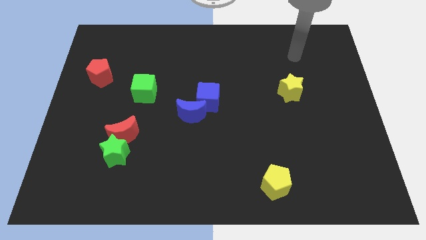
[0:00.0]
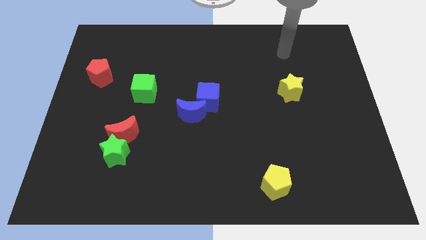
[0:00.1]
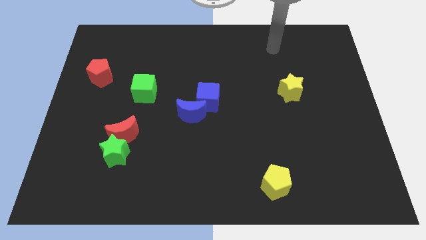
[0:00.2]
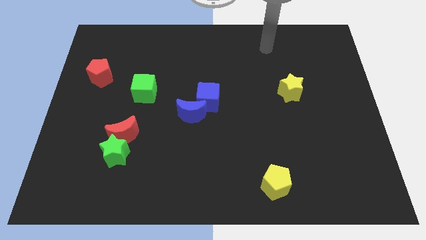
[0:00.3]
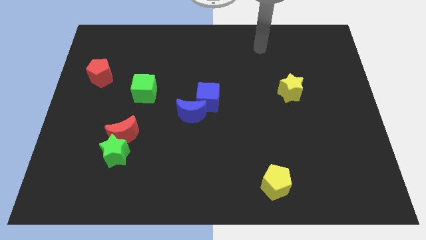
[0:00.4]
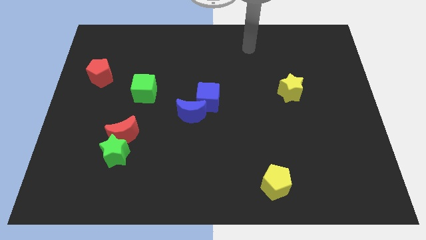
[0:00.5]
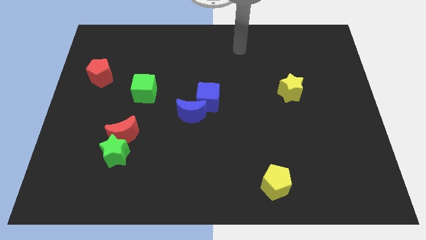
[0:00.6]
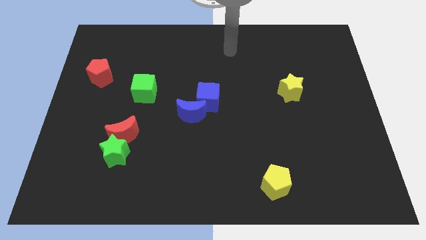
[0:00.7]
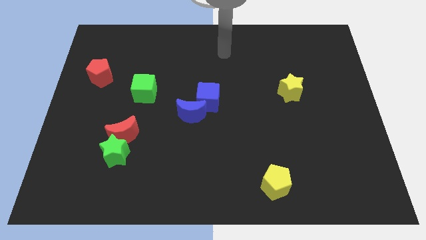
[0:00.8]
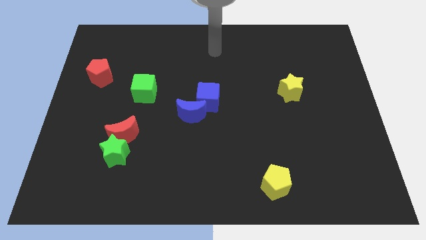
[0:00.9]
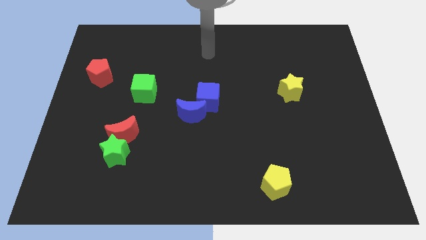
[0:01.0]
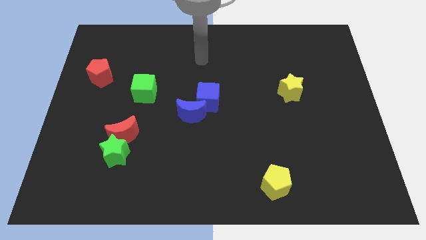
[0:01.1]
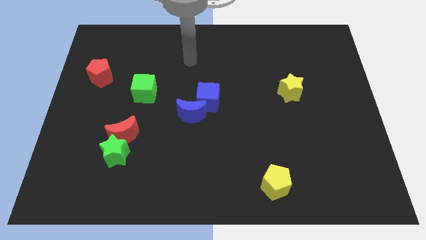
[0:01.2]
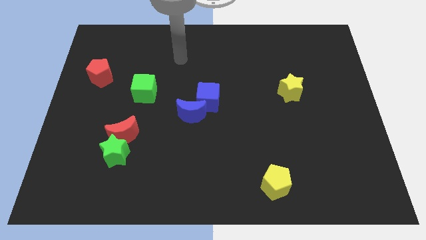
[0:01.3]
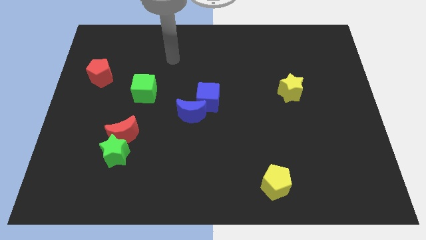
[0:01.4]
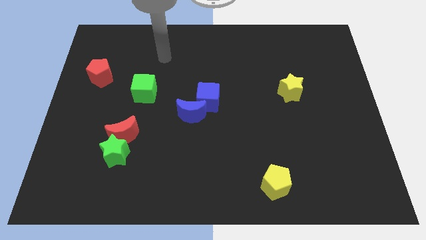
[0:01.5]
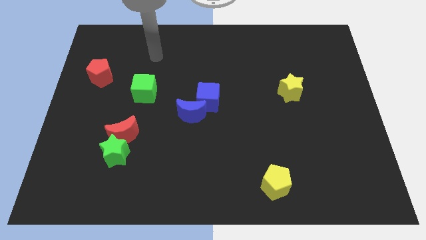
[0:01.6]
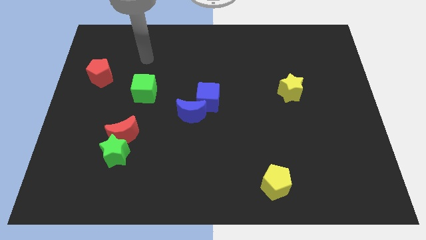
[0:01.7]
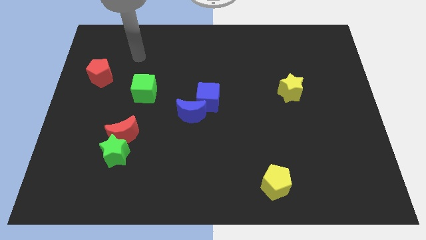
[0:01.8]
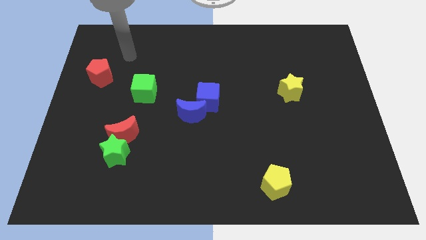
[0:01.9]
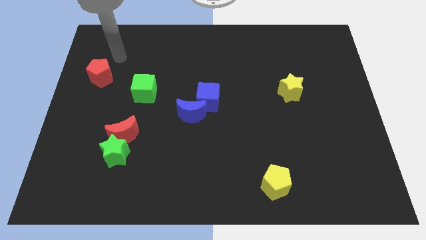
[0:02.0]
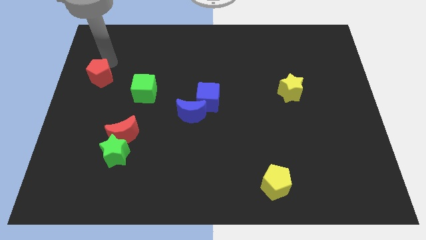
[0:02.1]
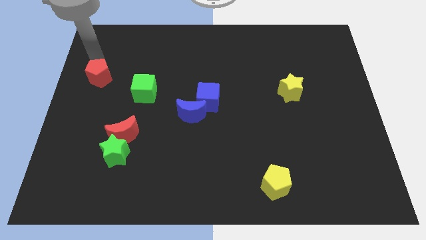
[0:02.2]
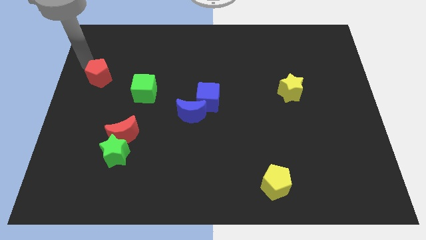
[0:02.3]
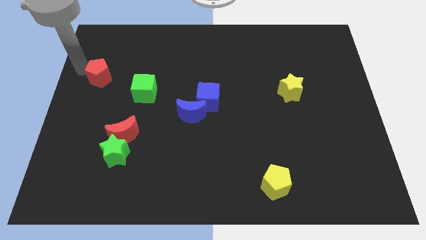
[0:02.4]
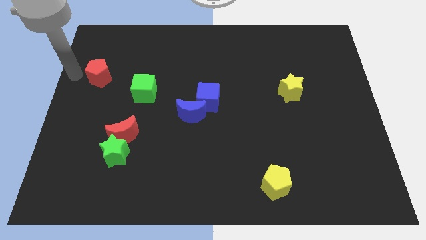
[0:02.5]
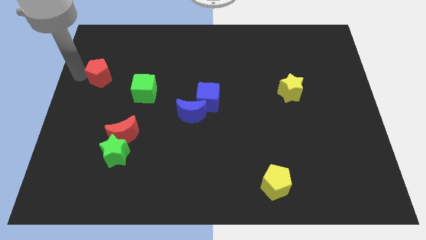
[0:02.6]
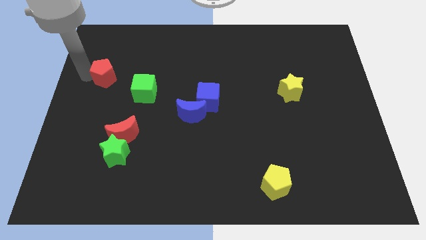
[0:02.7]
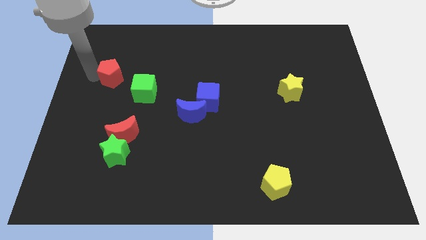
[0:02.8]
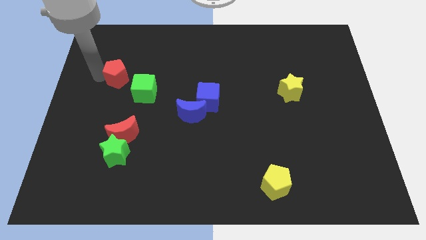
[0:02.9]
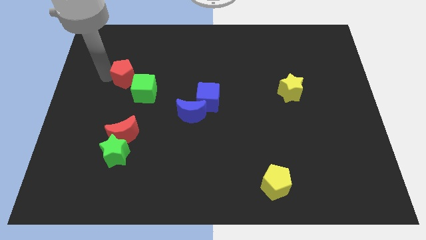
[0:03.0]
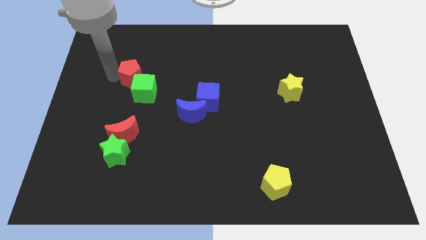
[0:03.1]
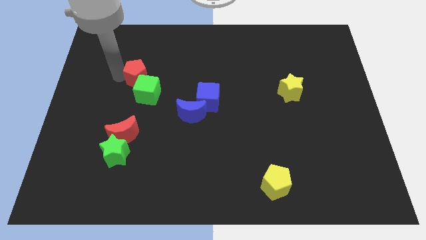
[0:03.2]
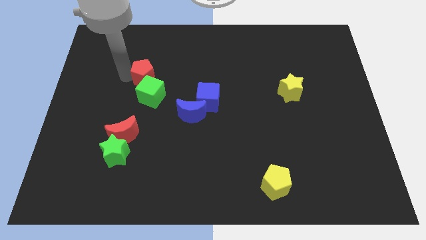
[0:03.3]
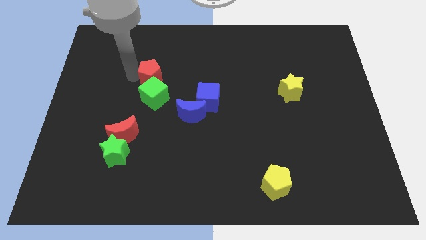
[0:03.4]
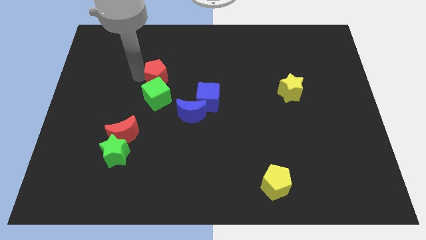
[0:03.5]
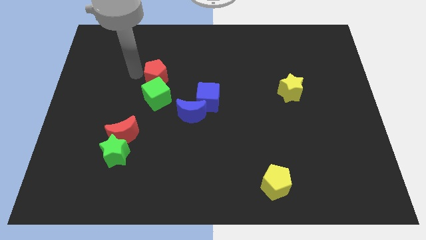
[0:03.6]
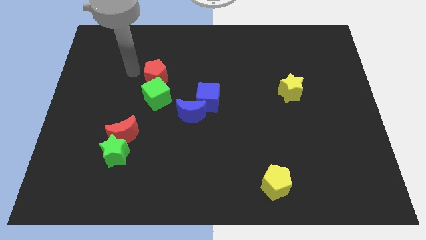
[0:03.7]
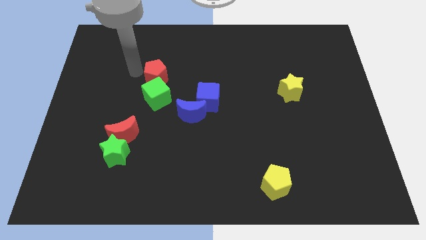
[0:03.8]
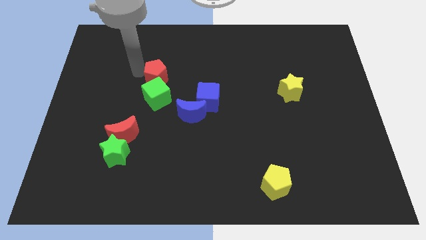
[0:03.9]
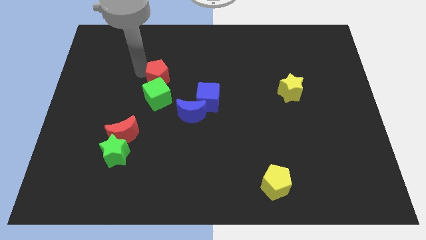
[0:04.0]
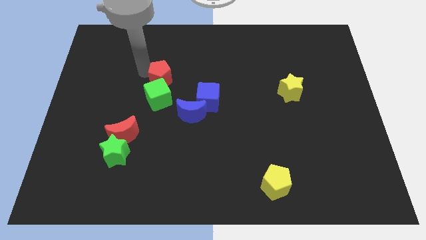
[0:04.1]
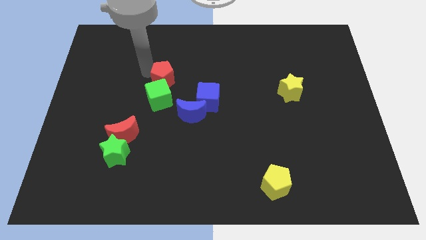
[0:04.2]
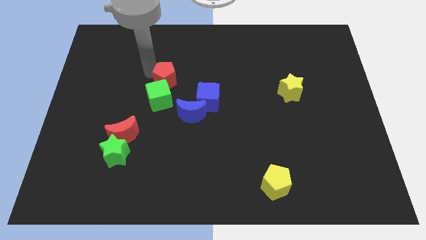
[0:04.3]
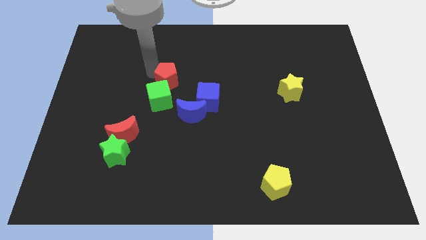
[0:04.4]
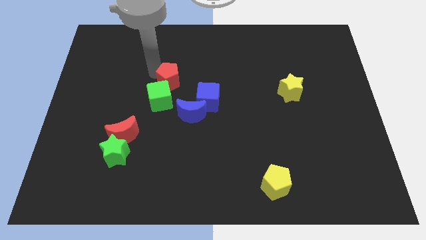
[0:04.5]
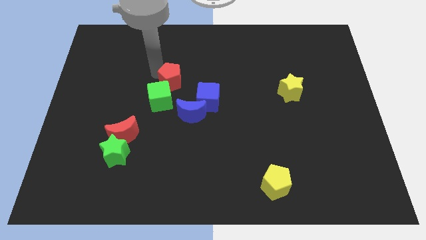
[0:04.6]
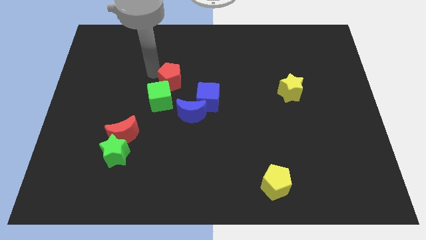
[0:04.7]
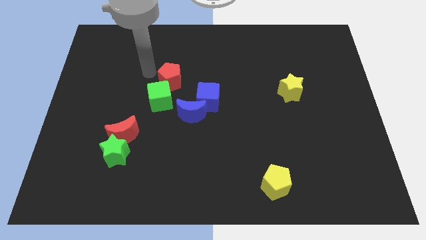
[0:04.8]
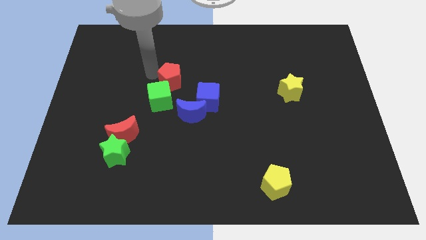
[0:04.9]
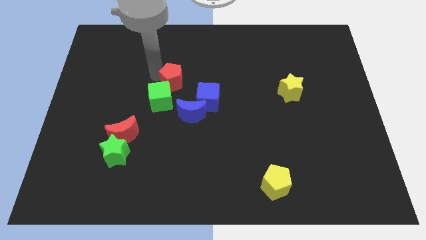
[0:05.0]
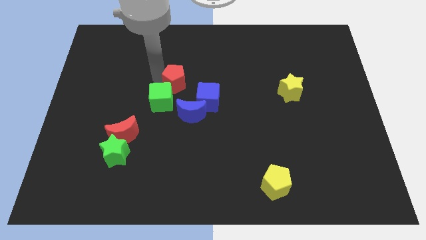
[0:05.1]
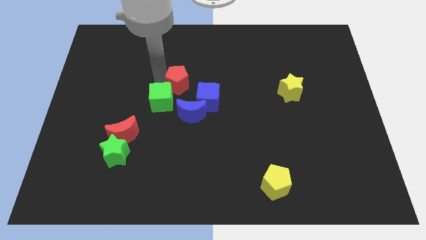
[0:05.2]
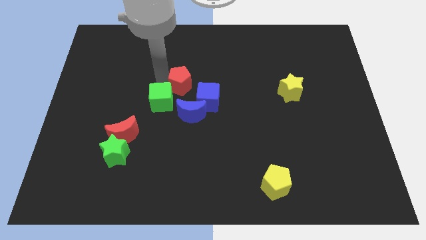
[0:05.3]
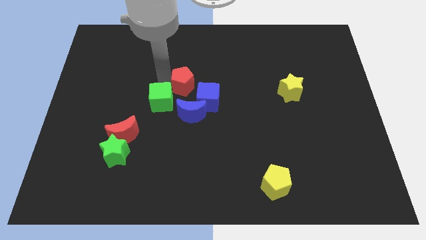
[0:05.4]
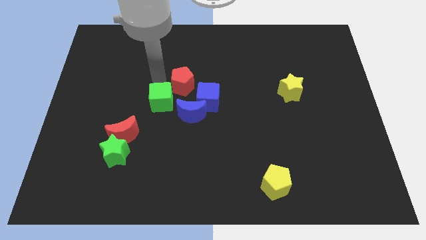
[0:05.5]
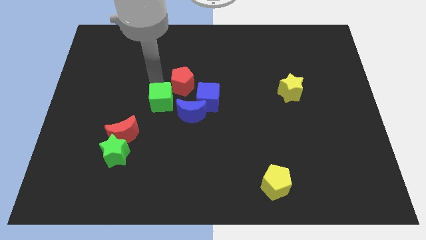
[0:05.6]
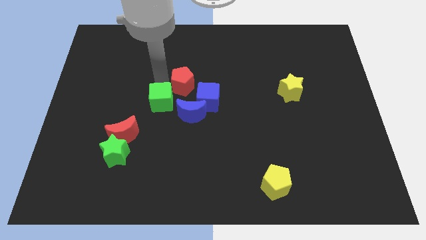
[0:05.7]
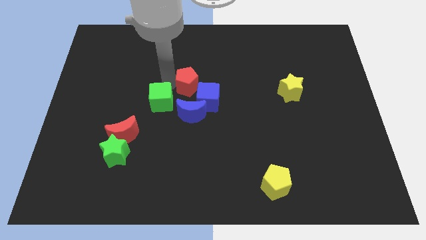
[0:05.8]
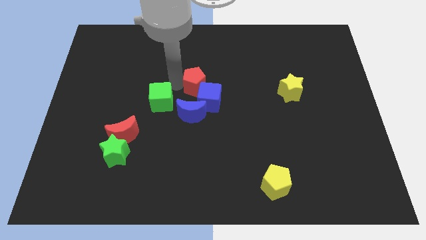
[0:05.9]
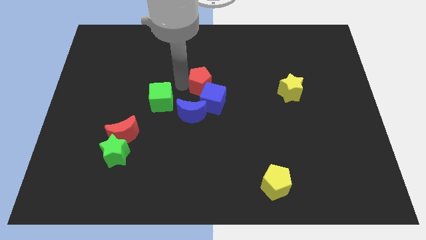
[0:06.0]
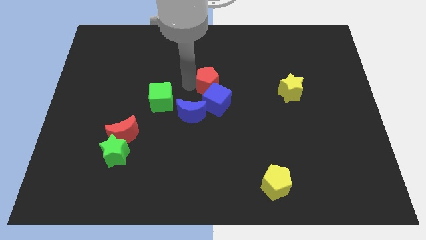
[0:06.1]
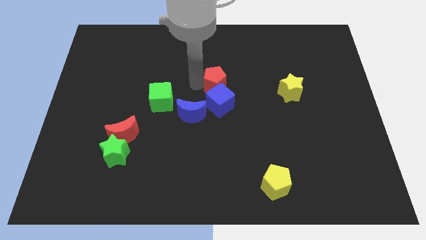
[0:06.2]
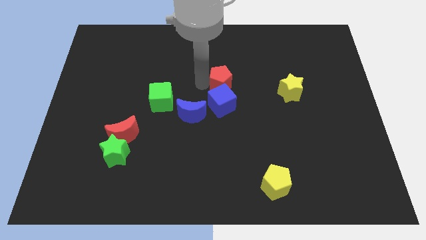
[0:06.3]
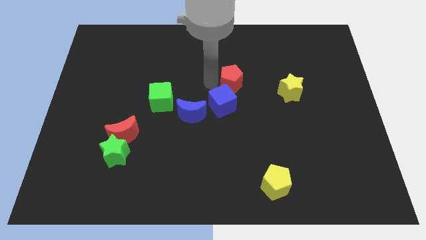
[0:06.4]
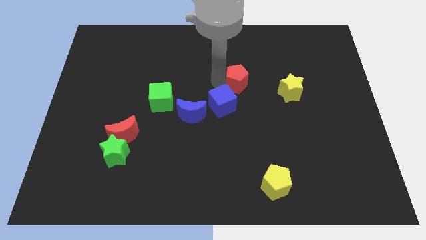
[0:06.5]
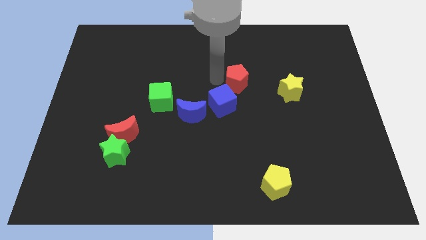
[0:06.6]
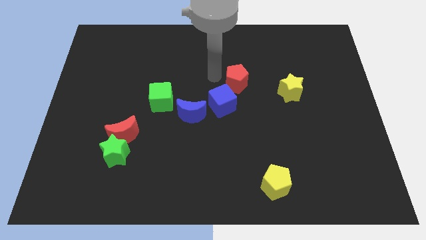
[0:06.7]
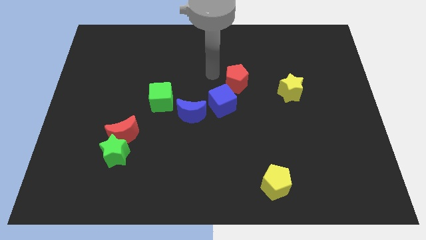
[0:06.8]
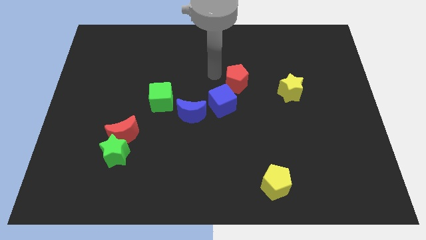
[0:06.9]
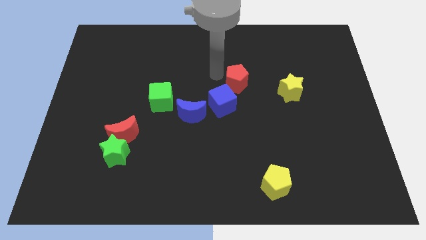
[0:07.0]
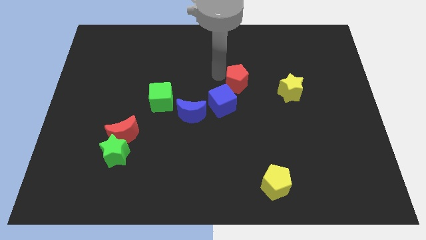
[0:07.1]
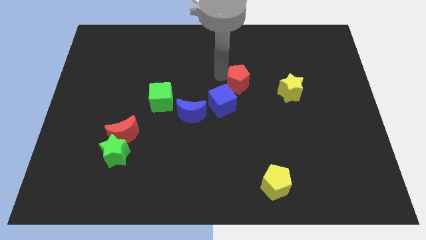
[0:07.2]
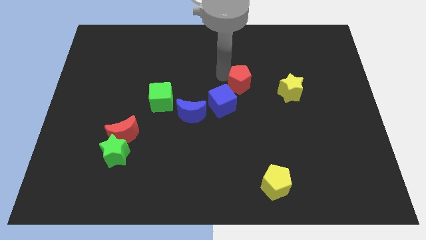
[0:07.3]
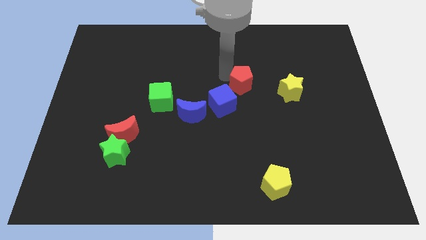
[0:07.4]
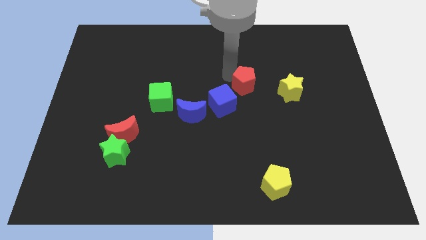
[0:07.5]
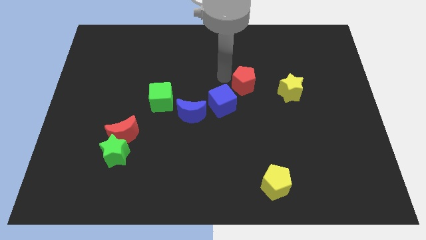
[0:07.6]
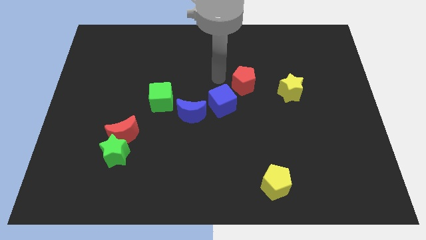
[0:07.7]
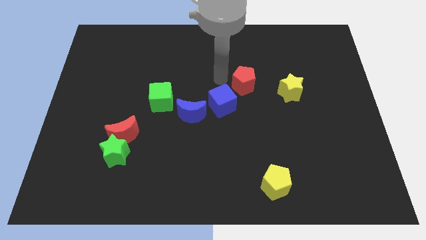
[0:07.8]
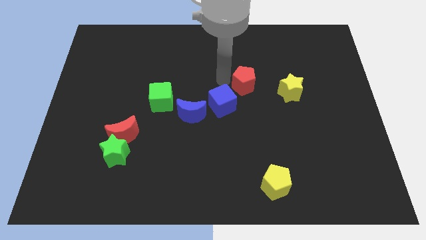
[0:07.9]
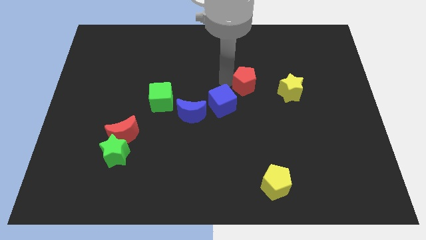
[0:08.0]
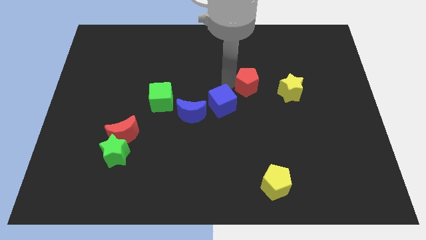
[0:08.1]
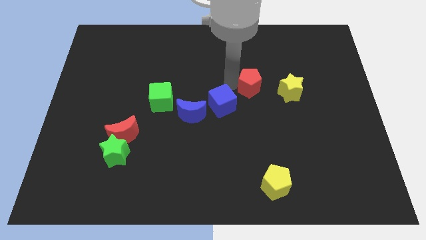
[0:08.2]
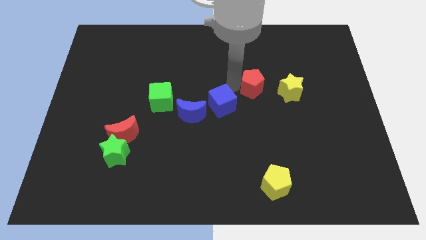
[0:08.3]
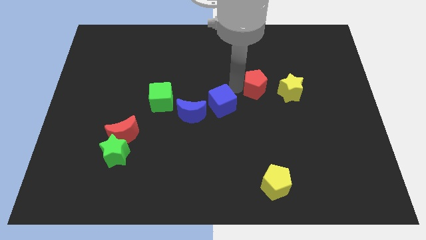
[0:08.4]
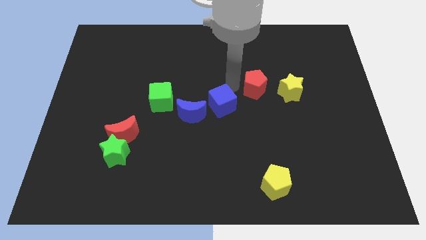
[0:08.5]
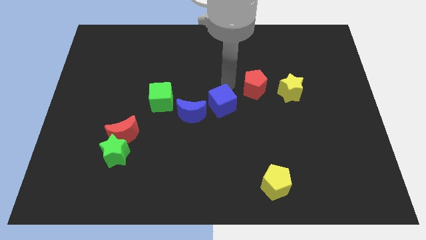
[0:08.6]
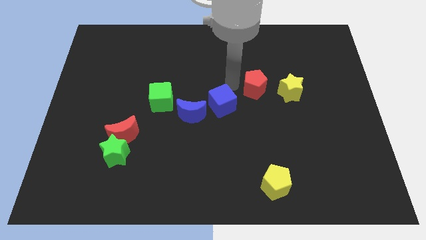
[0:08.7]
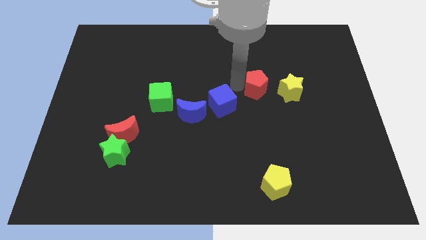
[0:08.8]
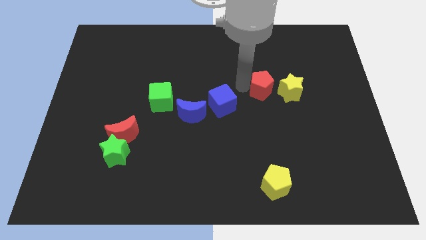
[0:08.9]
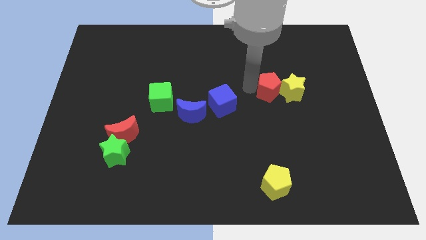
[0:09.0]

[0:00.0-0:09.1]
push the red pentagon next to the yellow star
